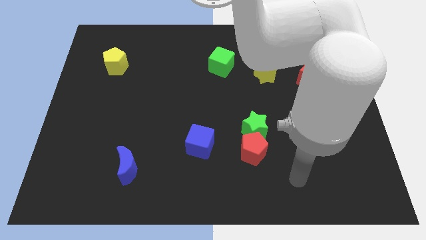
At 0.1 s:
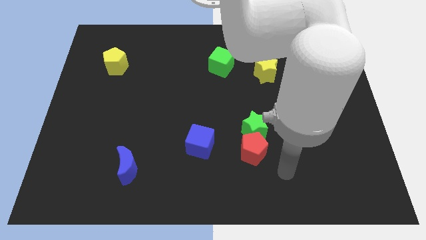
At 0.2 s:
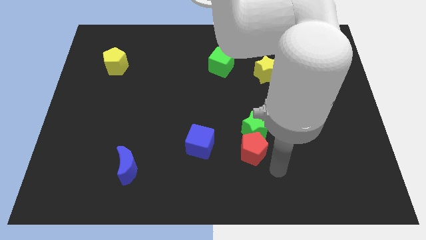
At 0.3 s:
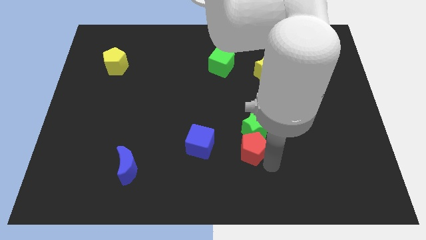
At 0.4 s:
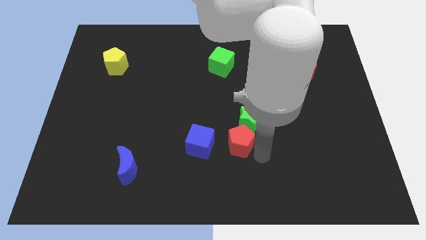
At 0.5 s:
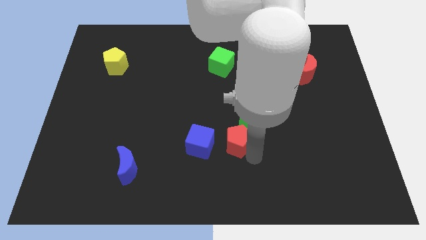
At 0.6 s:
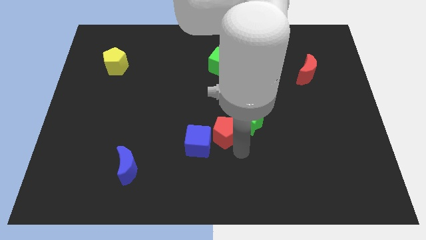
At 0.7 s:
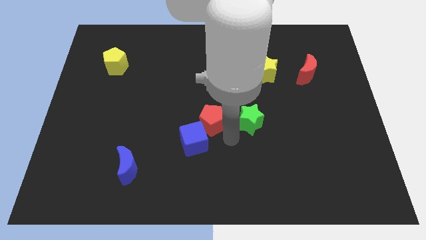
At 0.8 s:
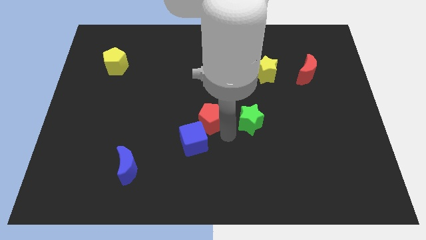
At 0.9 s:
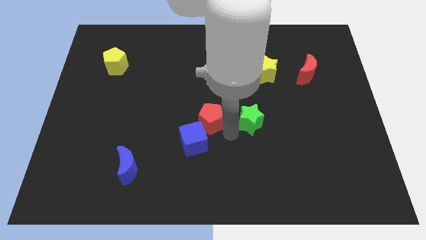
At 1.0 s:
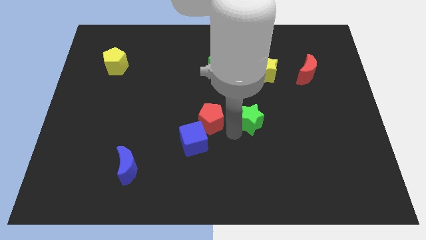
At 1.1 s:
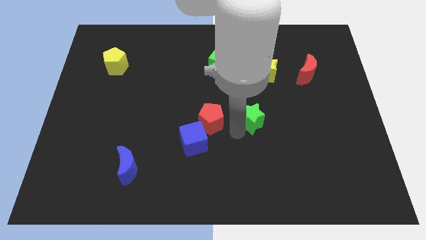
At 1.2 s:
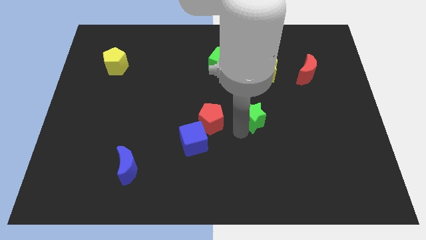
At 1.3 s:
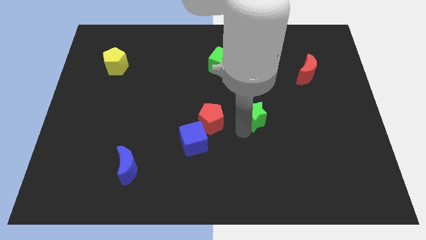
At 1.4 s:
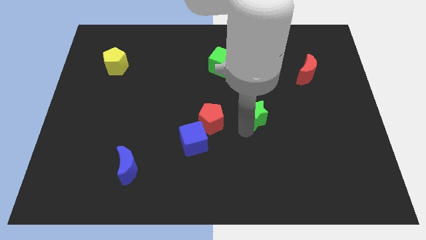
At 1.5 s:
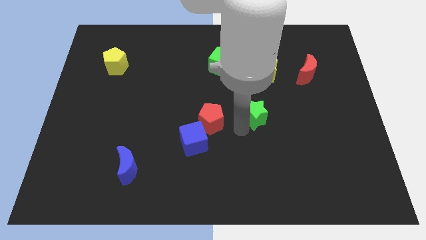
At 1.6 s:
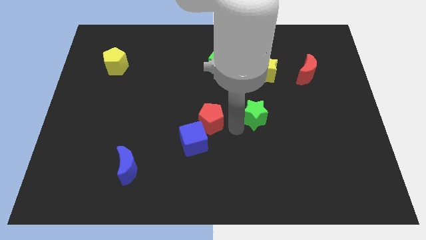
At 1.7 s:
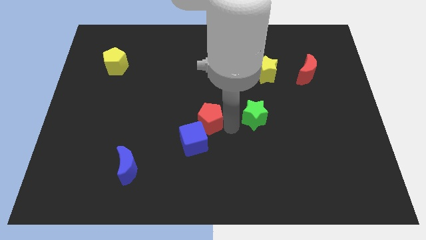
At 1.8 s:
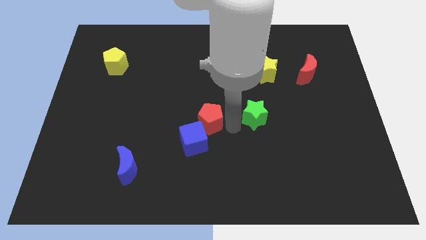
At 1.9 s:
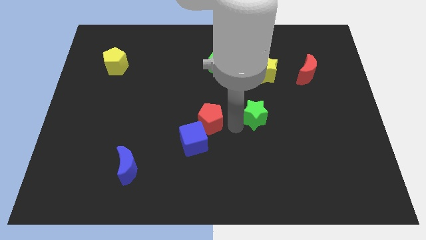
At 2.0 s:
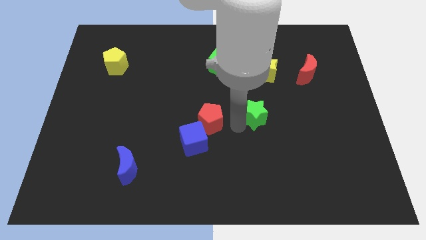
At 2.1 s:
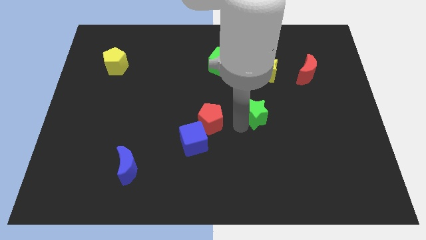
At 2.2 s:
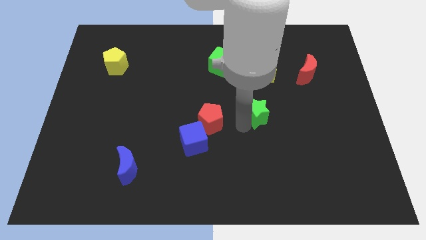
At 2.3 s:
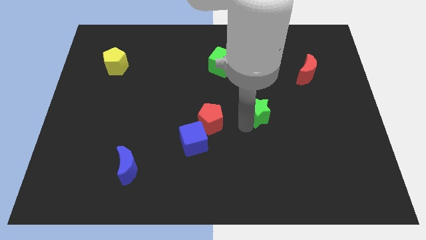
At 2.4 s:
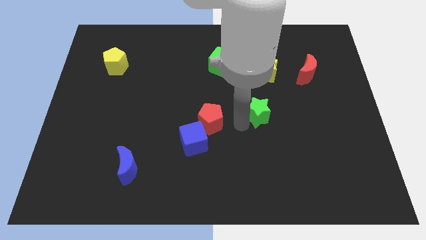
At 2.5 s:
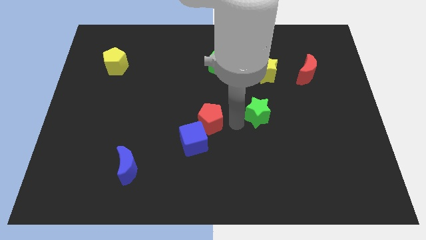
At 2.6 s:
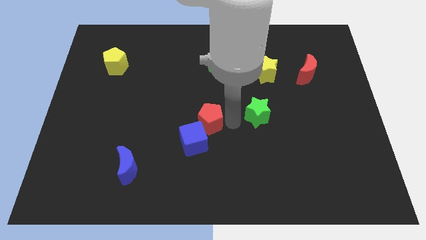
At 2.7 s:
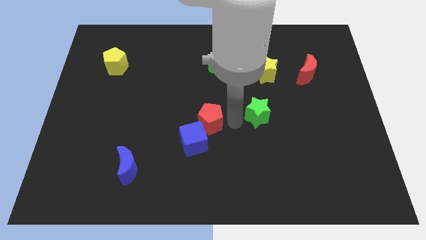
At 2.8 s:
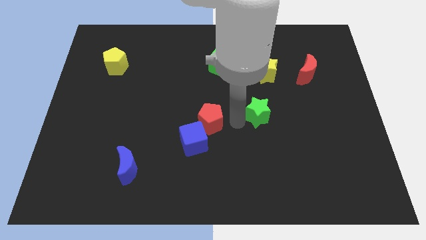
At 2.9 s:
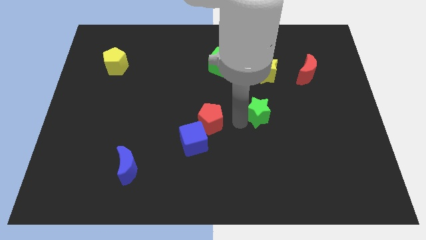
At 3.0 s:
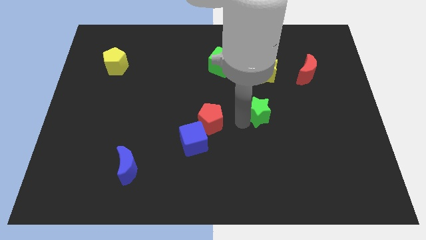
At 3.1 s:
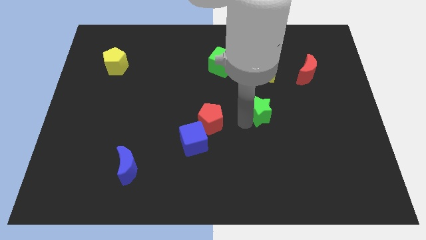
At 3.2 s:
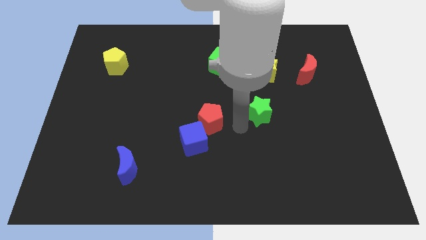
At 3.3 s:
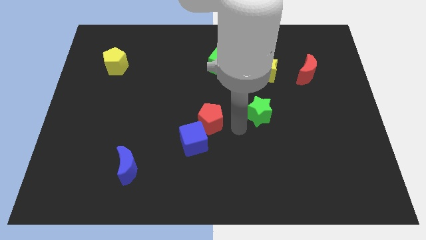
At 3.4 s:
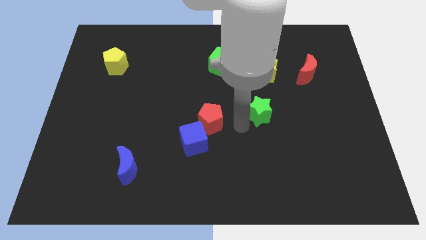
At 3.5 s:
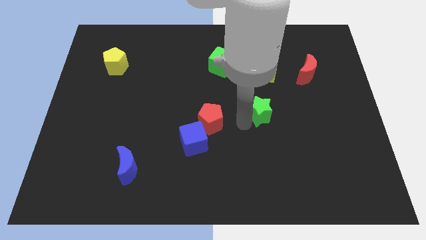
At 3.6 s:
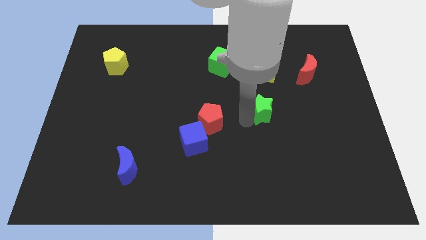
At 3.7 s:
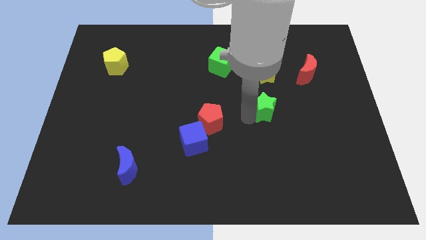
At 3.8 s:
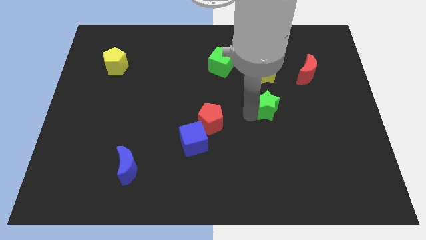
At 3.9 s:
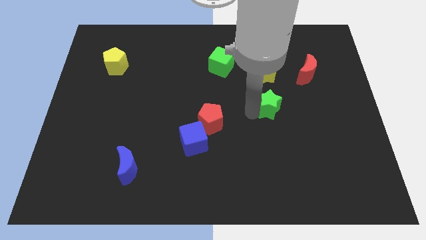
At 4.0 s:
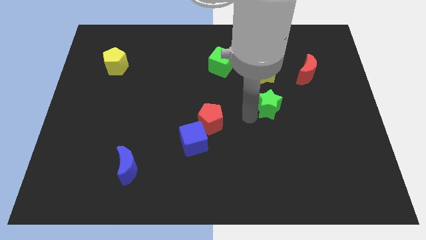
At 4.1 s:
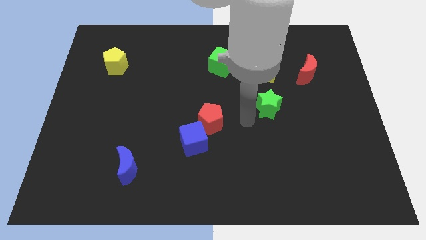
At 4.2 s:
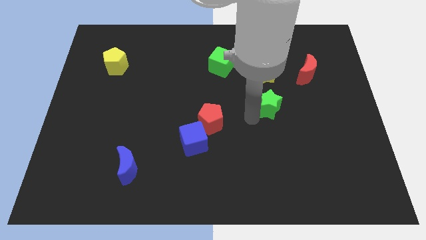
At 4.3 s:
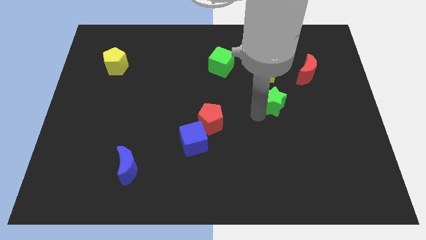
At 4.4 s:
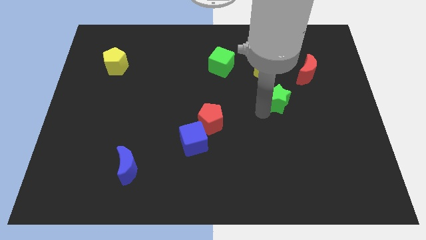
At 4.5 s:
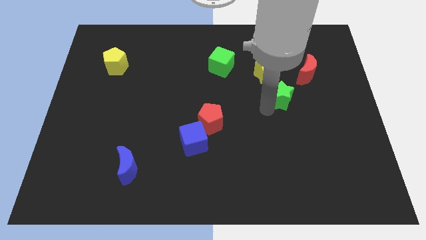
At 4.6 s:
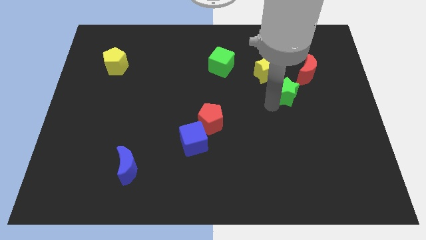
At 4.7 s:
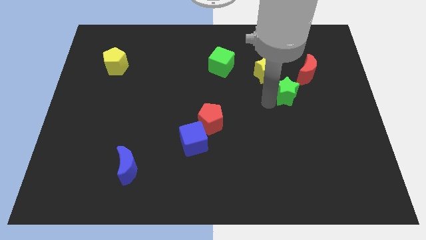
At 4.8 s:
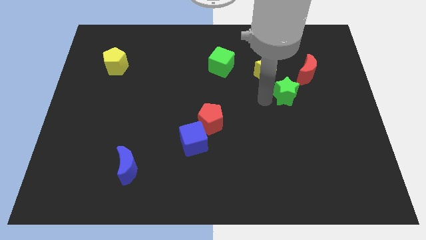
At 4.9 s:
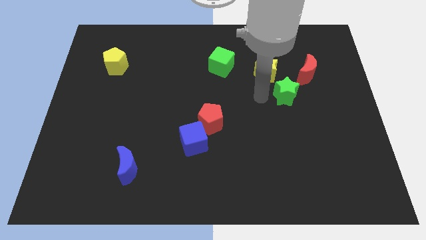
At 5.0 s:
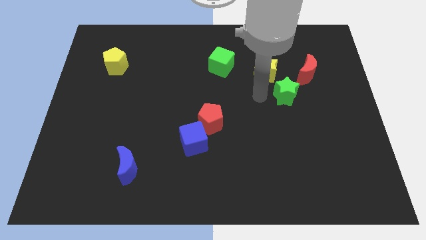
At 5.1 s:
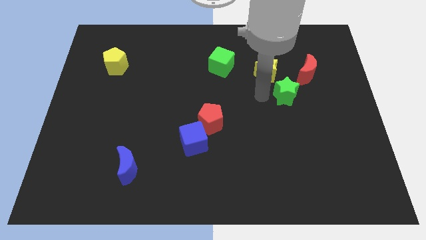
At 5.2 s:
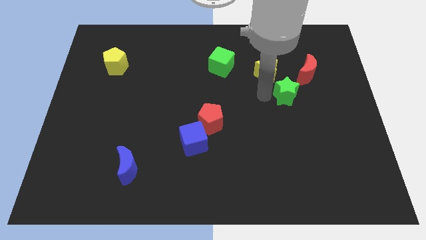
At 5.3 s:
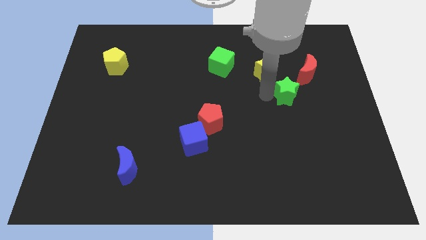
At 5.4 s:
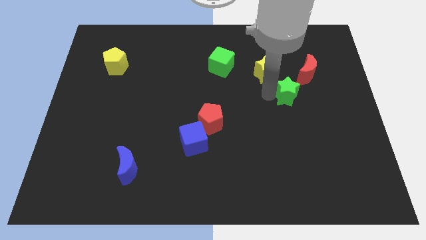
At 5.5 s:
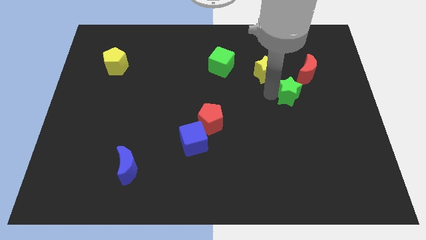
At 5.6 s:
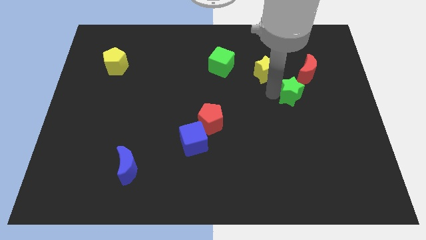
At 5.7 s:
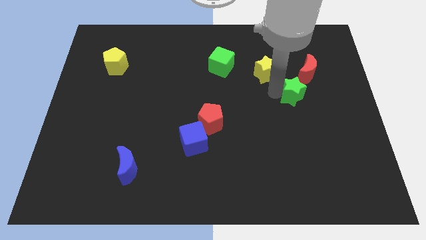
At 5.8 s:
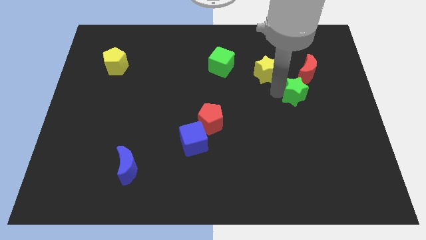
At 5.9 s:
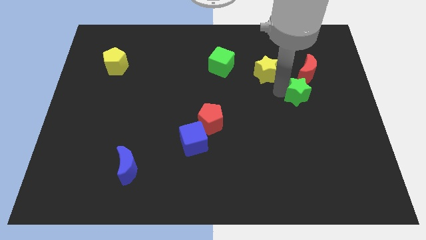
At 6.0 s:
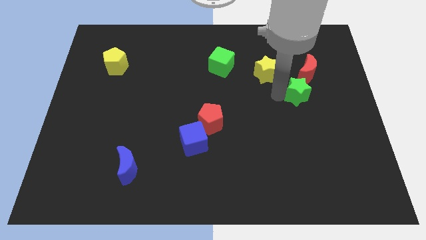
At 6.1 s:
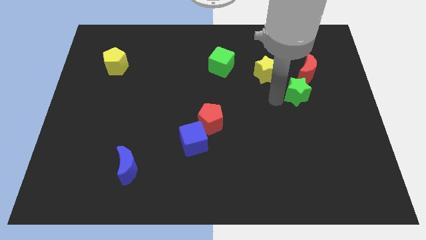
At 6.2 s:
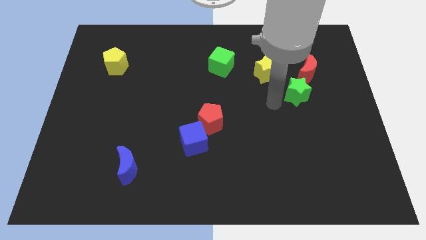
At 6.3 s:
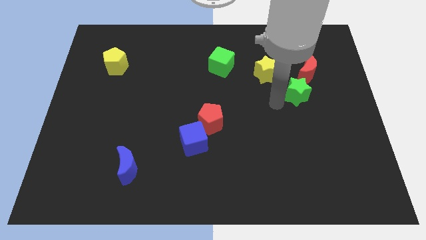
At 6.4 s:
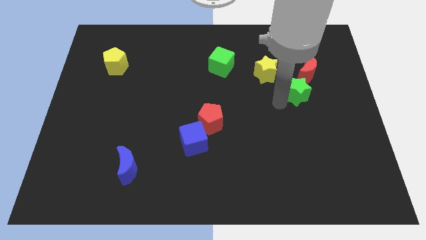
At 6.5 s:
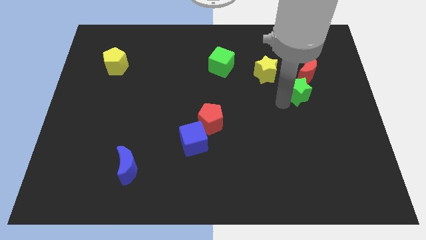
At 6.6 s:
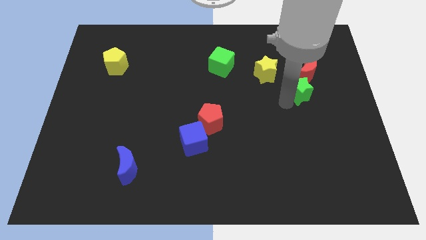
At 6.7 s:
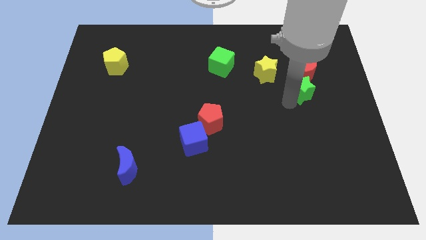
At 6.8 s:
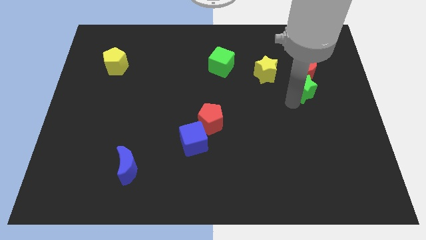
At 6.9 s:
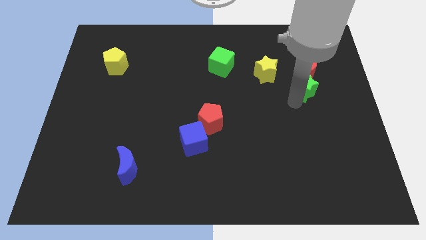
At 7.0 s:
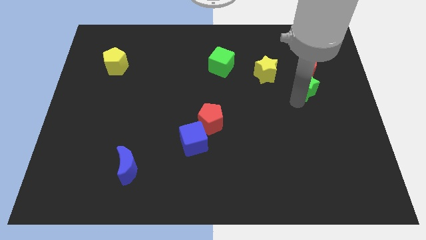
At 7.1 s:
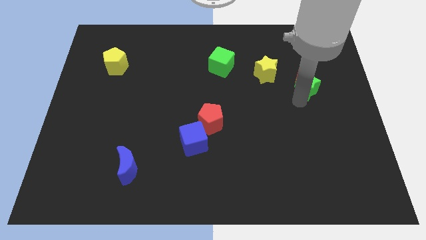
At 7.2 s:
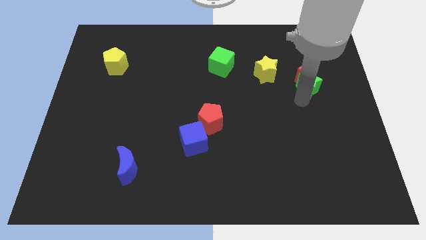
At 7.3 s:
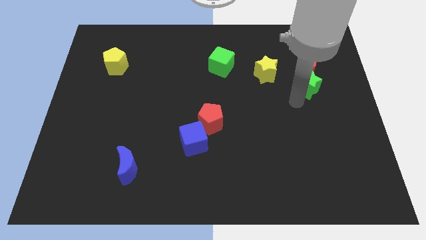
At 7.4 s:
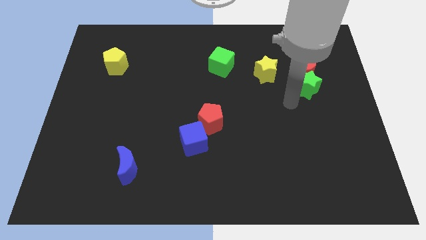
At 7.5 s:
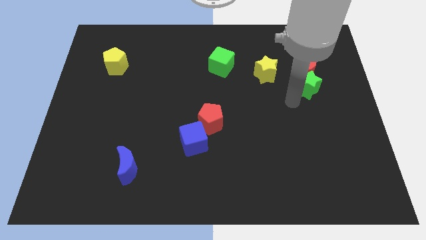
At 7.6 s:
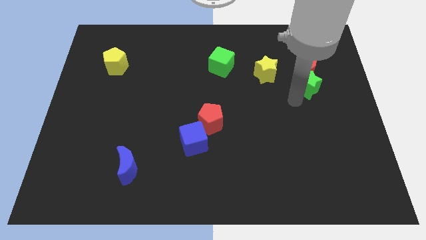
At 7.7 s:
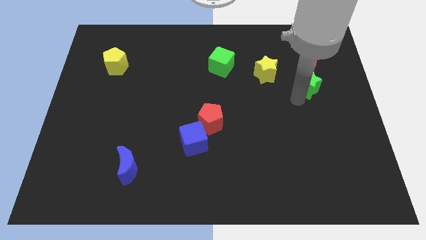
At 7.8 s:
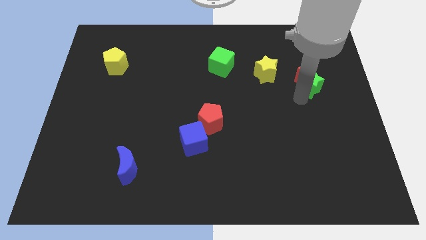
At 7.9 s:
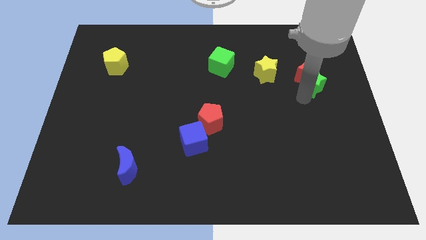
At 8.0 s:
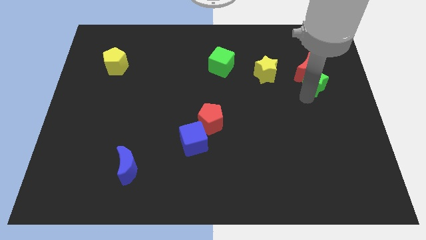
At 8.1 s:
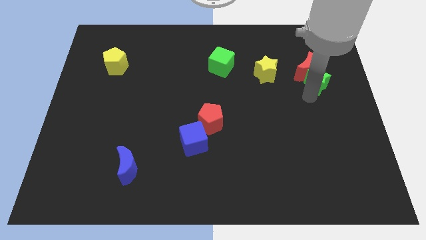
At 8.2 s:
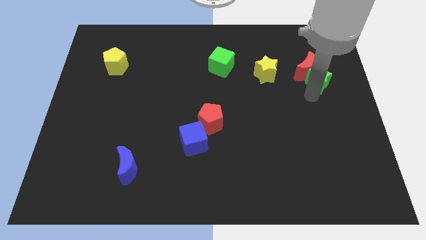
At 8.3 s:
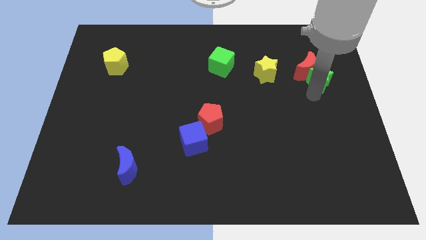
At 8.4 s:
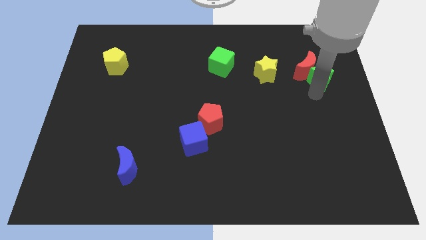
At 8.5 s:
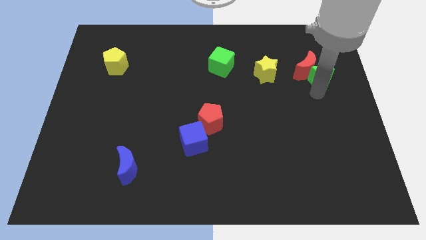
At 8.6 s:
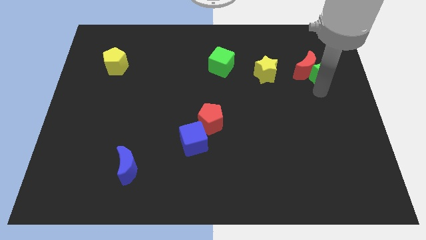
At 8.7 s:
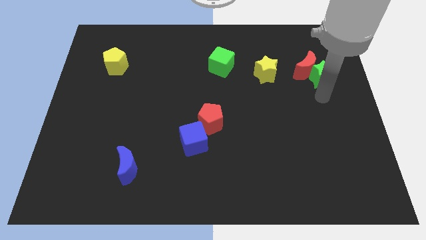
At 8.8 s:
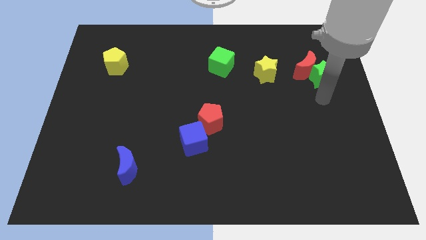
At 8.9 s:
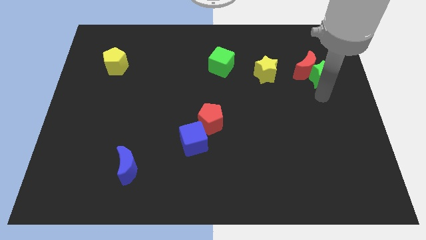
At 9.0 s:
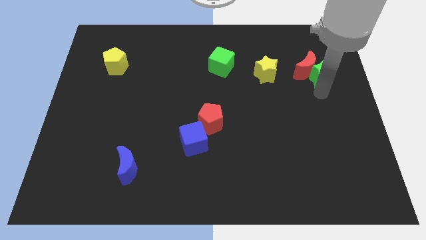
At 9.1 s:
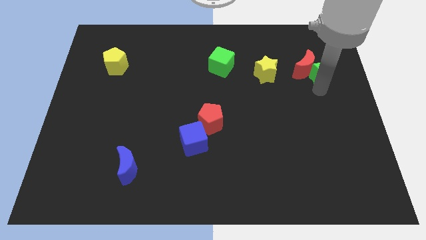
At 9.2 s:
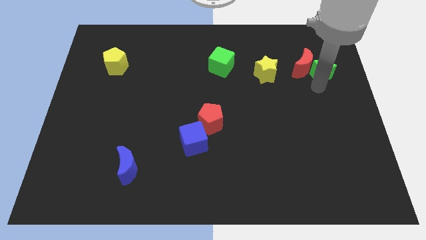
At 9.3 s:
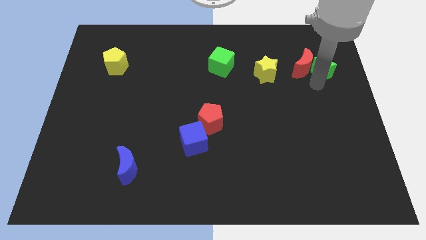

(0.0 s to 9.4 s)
move the green star diagonally up and to the right of the red moon
